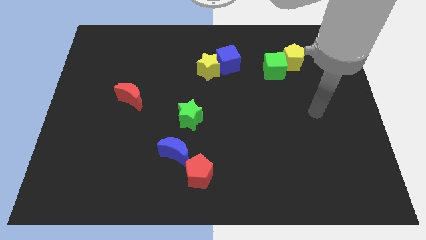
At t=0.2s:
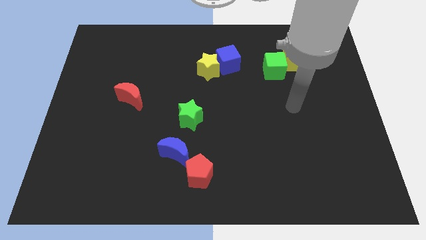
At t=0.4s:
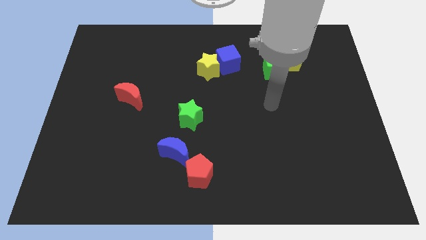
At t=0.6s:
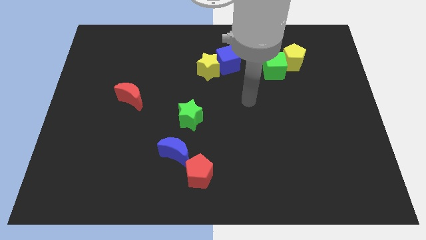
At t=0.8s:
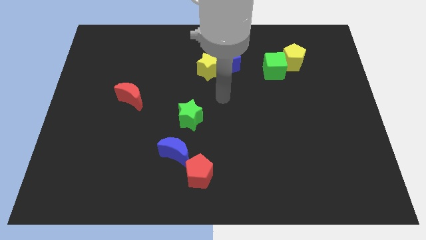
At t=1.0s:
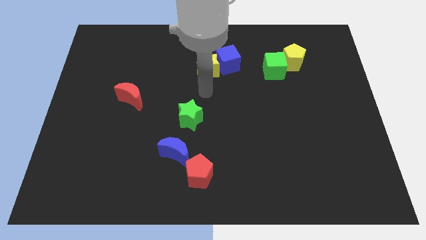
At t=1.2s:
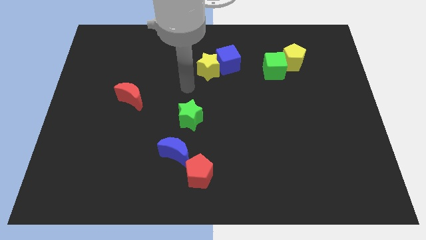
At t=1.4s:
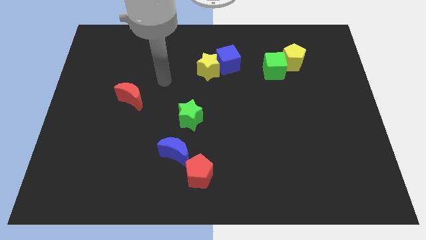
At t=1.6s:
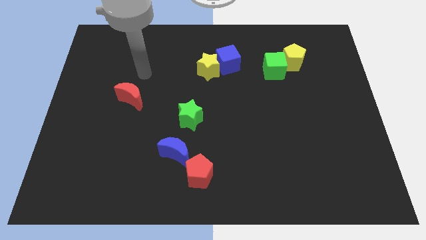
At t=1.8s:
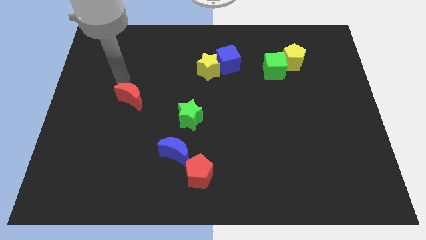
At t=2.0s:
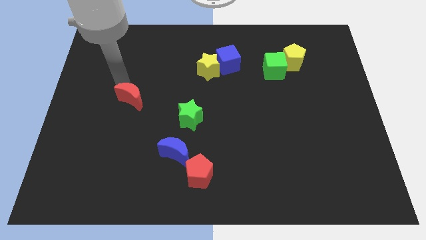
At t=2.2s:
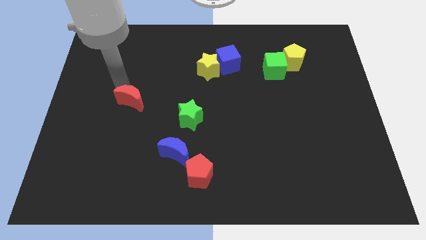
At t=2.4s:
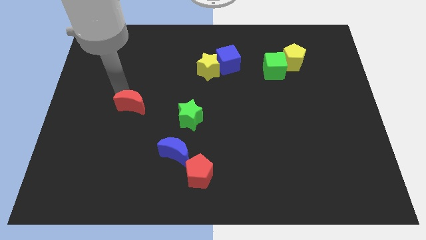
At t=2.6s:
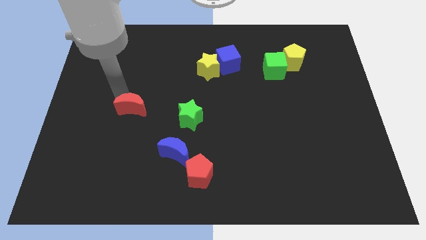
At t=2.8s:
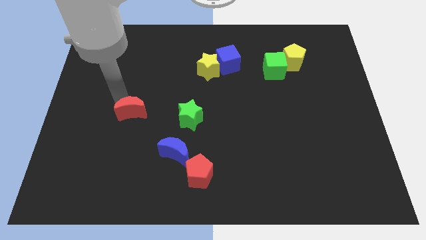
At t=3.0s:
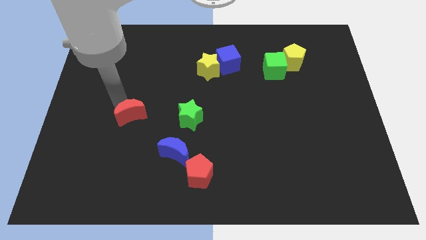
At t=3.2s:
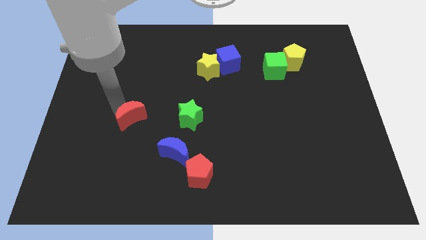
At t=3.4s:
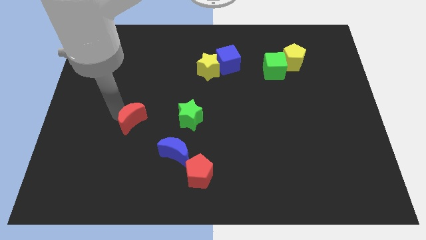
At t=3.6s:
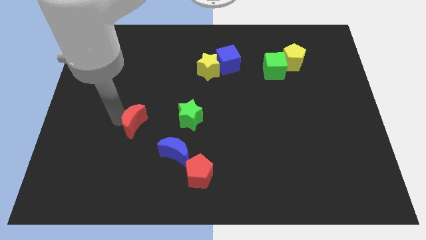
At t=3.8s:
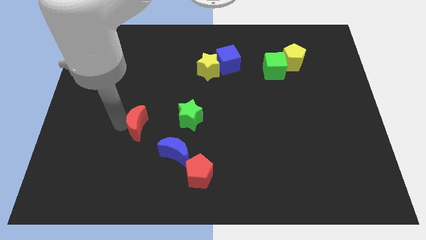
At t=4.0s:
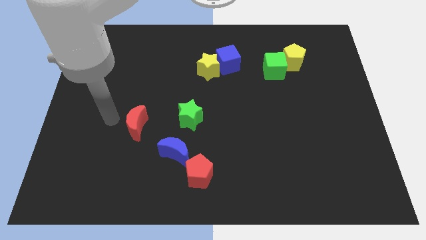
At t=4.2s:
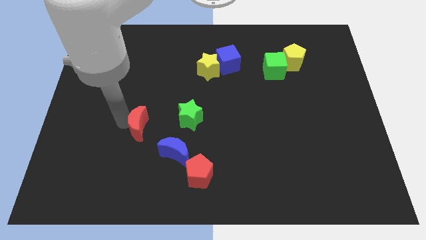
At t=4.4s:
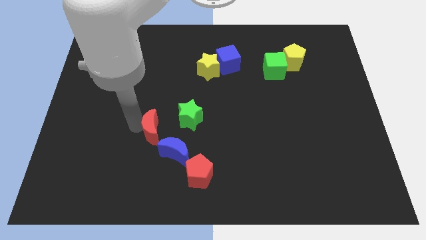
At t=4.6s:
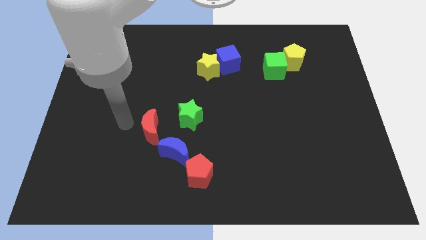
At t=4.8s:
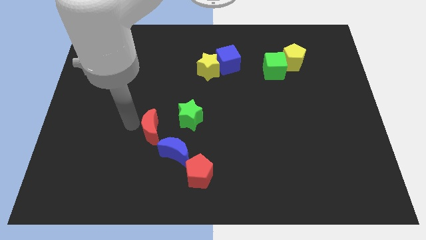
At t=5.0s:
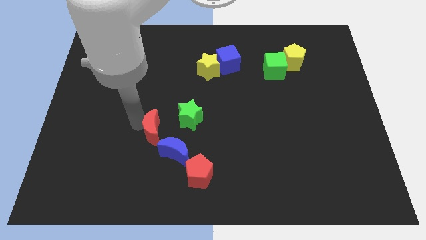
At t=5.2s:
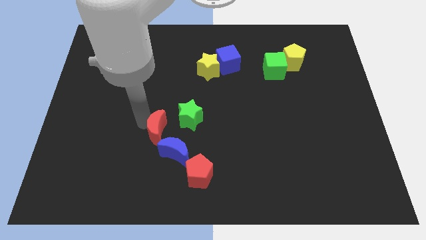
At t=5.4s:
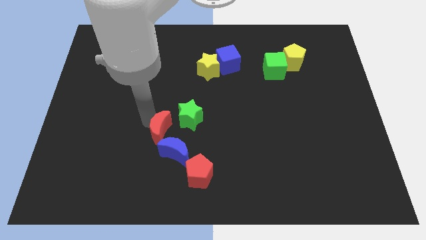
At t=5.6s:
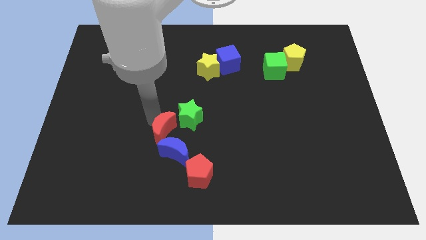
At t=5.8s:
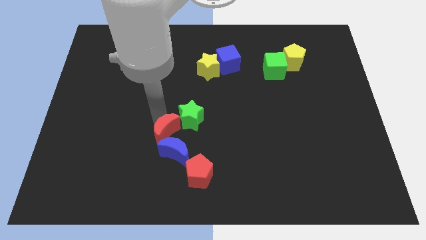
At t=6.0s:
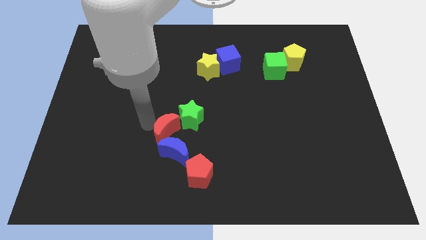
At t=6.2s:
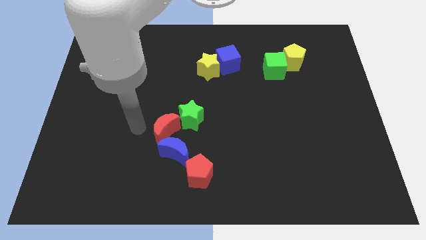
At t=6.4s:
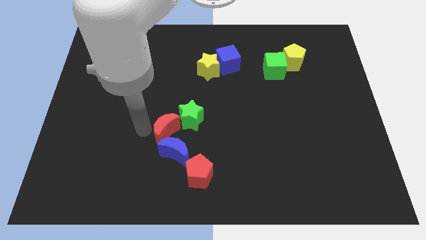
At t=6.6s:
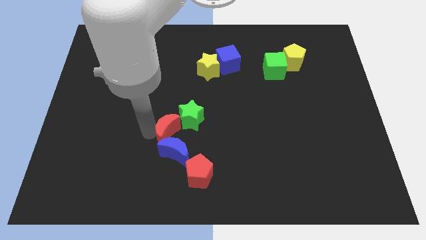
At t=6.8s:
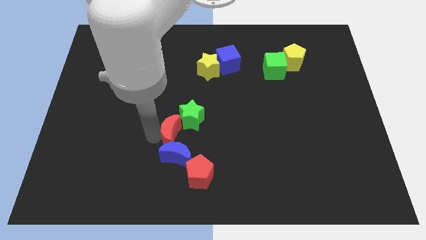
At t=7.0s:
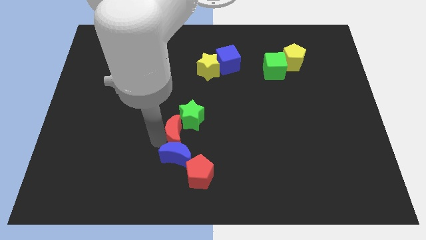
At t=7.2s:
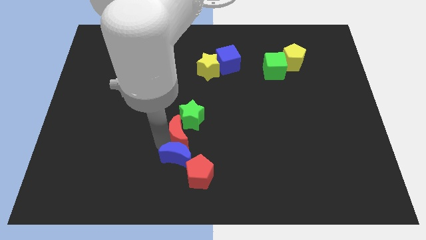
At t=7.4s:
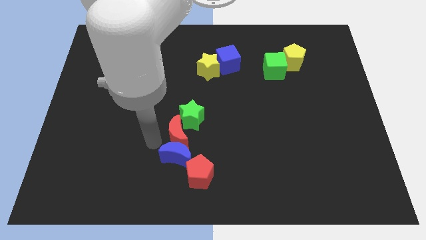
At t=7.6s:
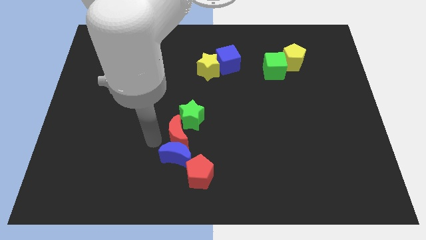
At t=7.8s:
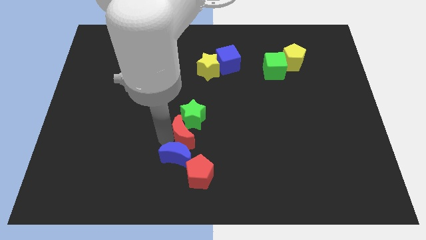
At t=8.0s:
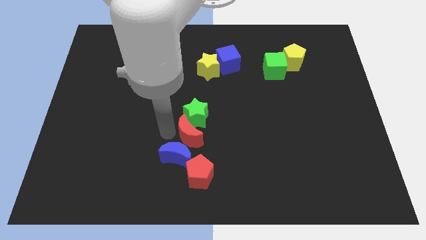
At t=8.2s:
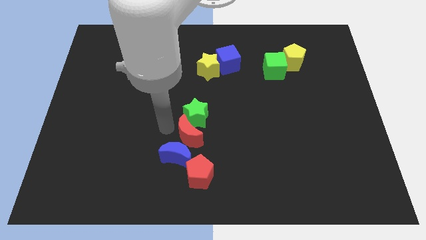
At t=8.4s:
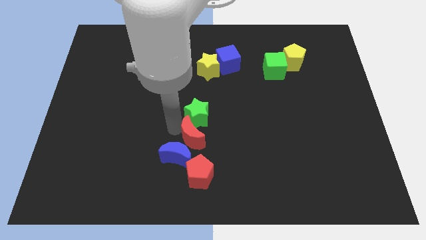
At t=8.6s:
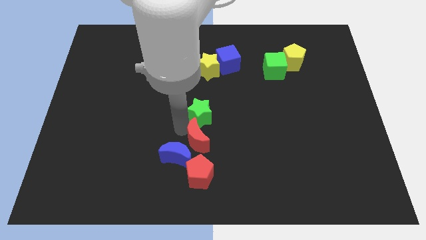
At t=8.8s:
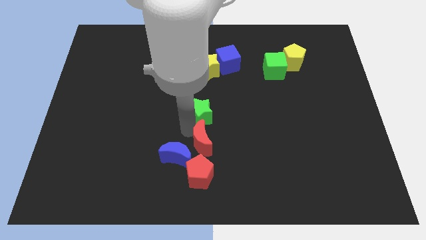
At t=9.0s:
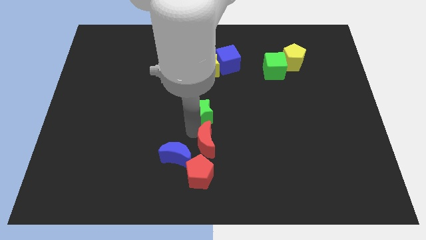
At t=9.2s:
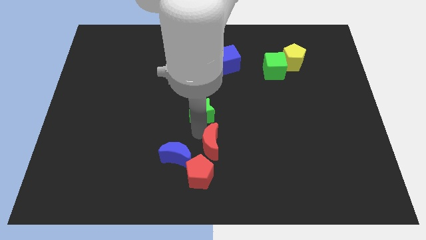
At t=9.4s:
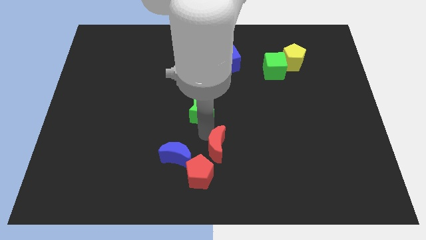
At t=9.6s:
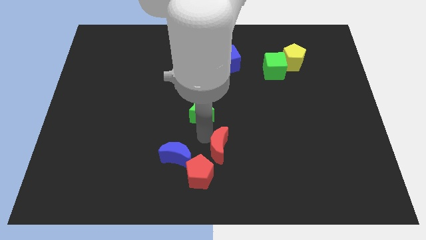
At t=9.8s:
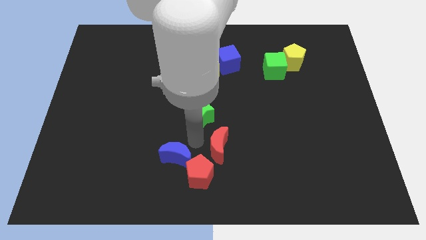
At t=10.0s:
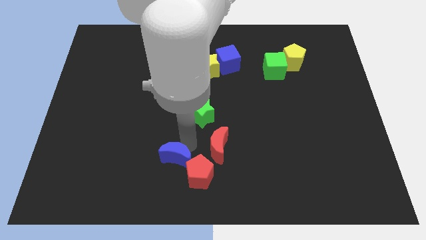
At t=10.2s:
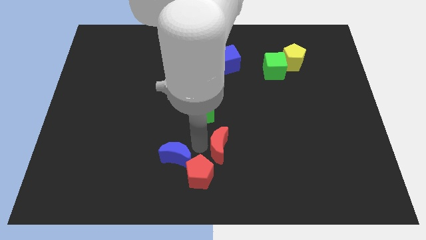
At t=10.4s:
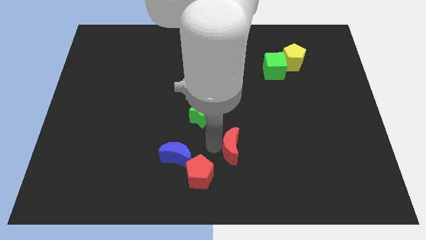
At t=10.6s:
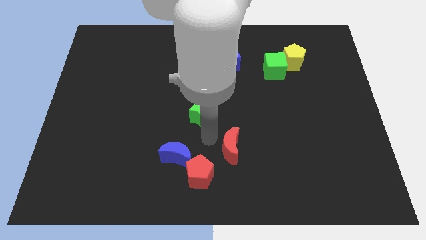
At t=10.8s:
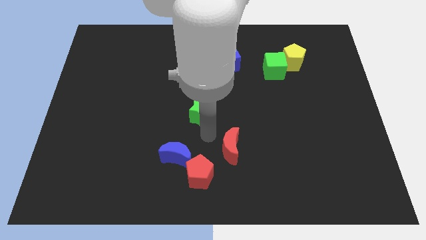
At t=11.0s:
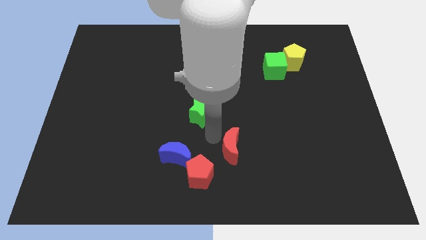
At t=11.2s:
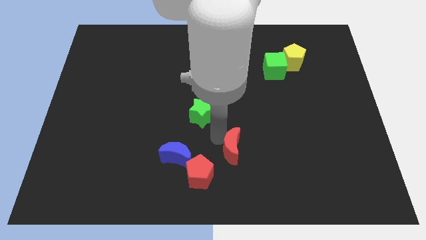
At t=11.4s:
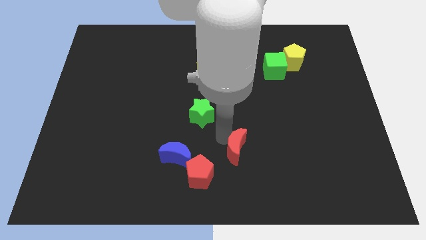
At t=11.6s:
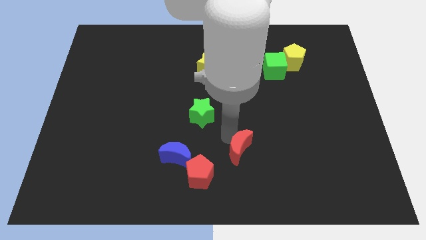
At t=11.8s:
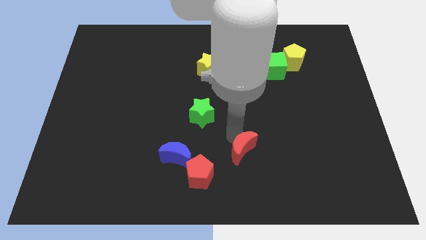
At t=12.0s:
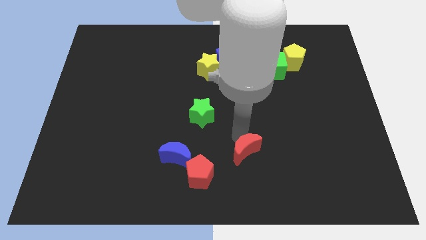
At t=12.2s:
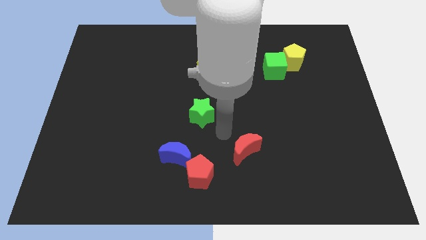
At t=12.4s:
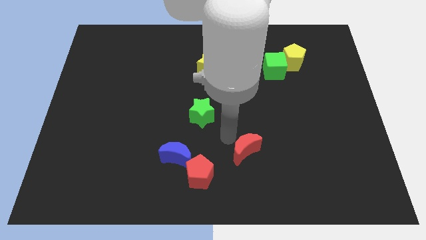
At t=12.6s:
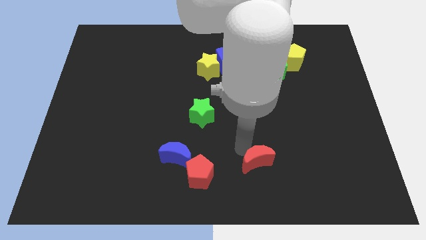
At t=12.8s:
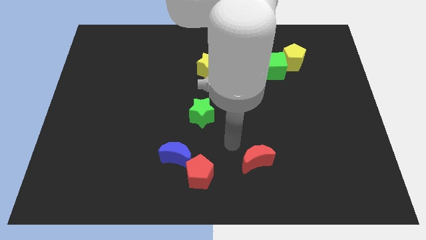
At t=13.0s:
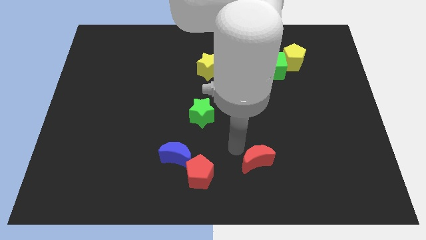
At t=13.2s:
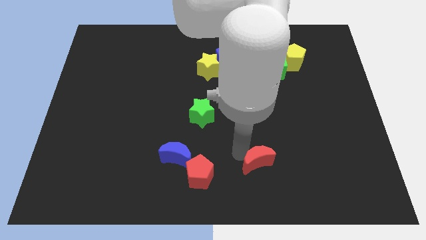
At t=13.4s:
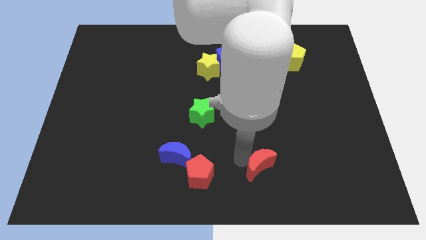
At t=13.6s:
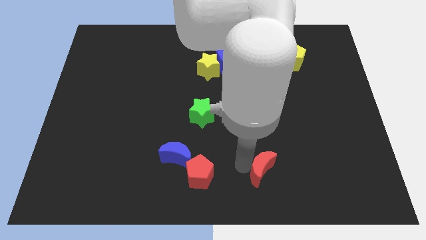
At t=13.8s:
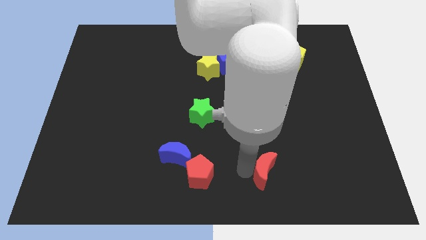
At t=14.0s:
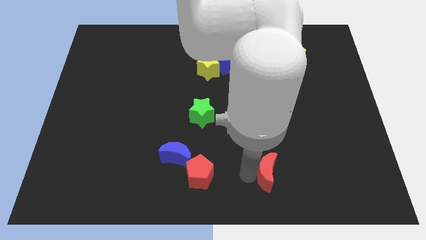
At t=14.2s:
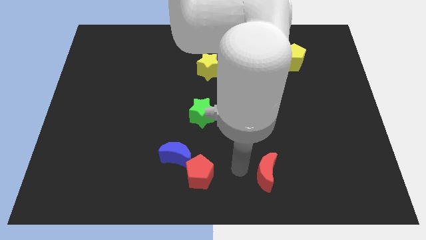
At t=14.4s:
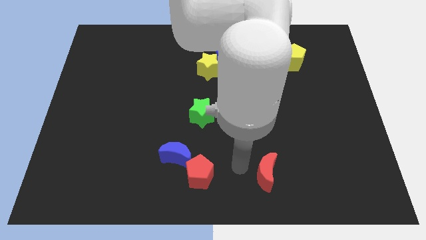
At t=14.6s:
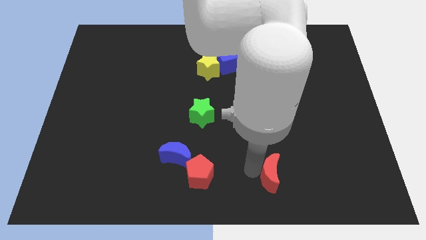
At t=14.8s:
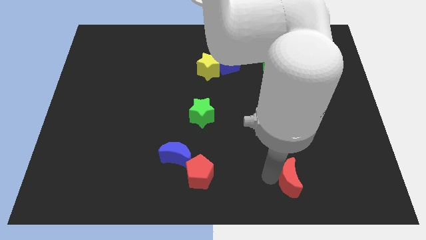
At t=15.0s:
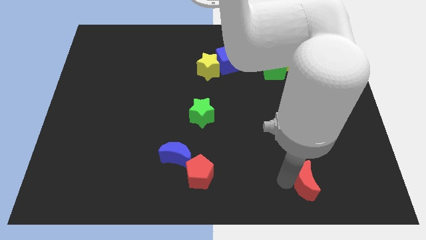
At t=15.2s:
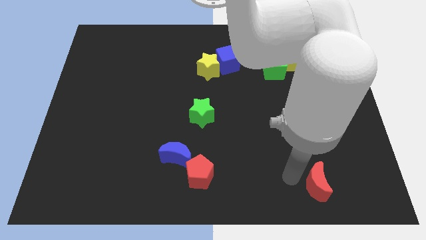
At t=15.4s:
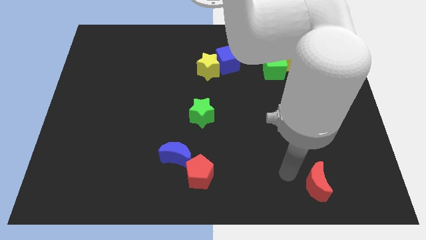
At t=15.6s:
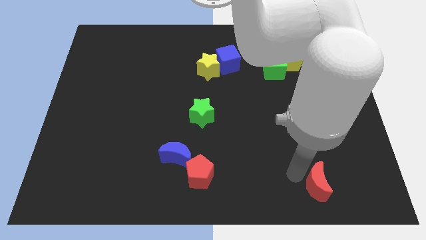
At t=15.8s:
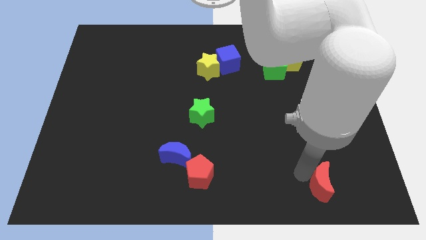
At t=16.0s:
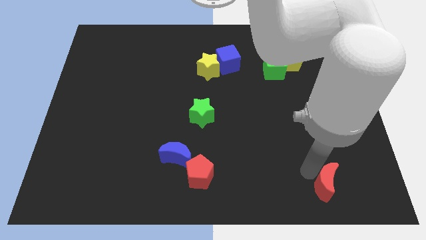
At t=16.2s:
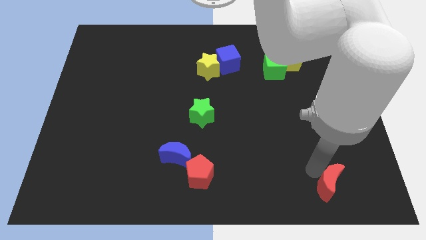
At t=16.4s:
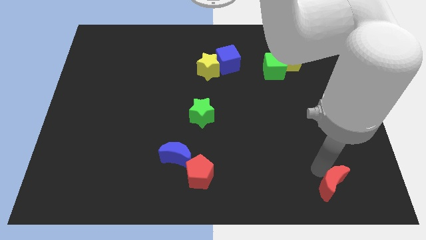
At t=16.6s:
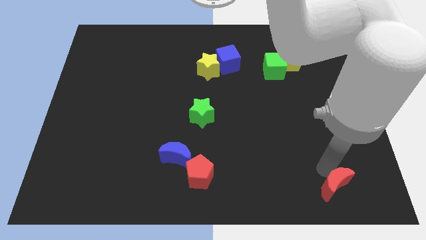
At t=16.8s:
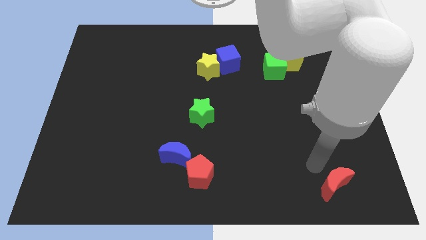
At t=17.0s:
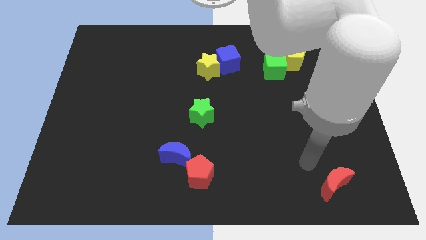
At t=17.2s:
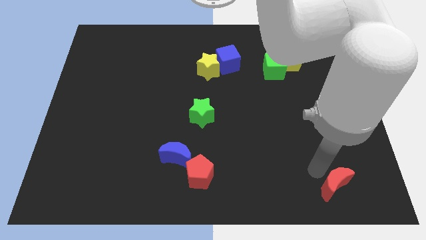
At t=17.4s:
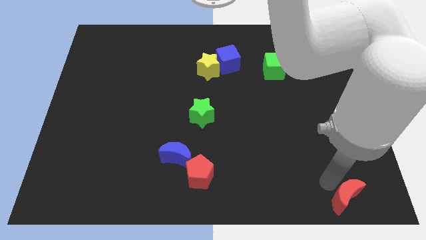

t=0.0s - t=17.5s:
slide the red moon to the bottom right of the board
